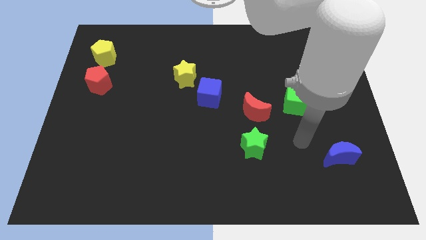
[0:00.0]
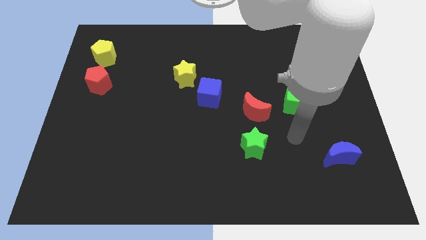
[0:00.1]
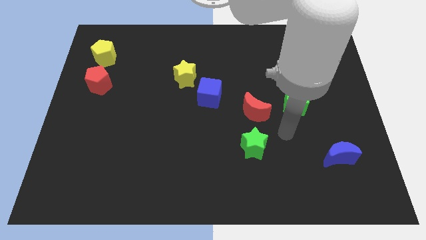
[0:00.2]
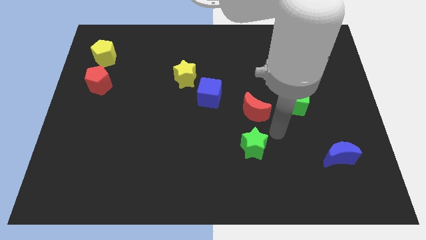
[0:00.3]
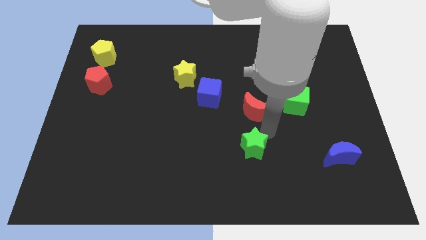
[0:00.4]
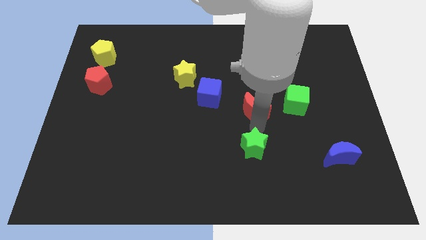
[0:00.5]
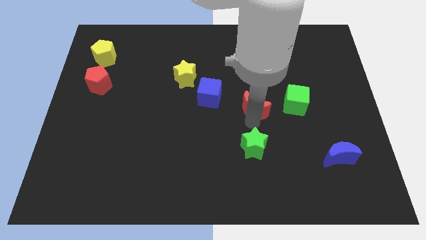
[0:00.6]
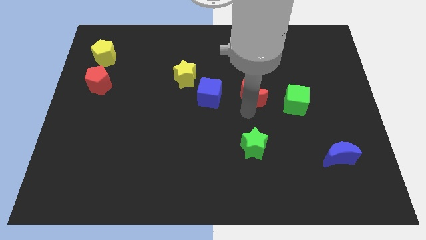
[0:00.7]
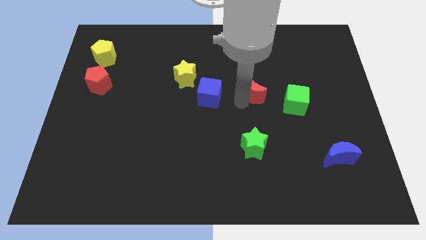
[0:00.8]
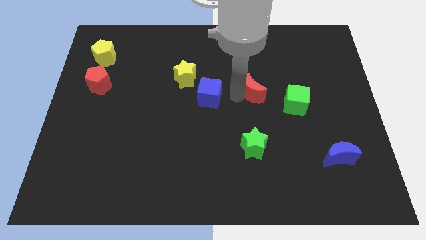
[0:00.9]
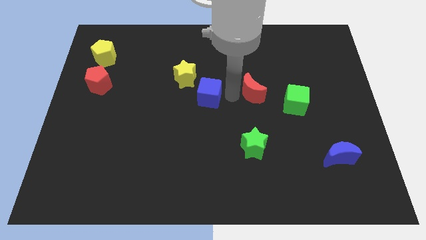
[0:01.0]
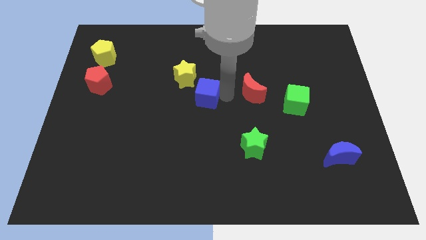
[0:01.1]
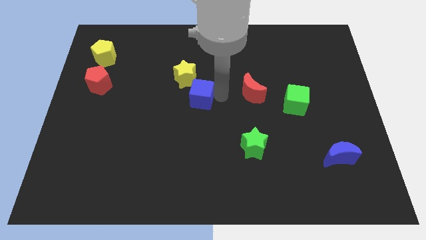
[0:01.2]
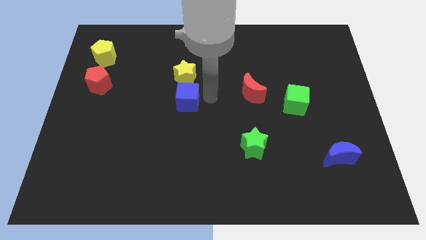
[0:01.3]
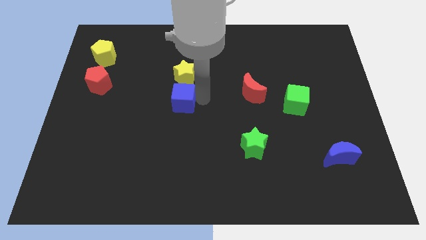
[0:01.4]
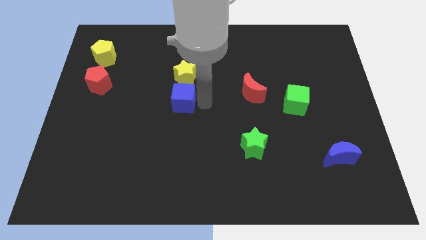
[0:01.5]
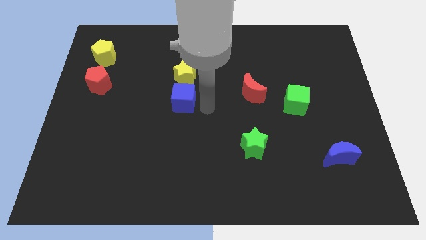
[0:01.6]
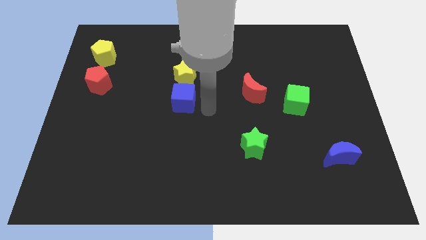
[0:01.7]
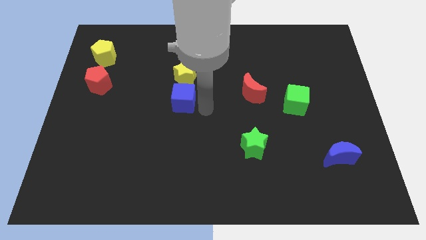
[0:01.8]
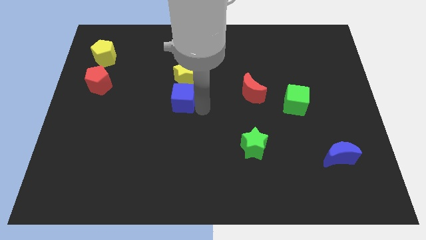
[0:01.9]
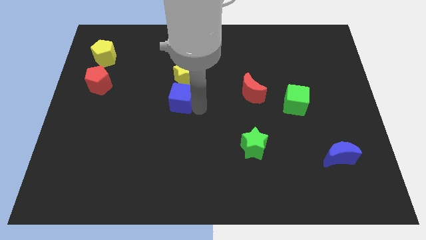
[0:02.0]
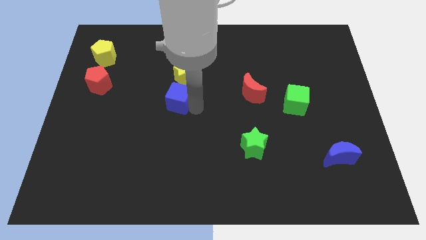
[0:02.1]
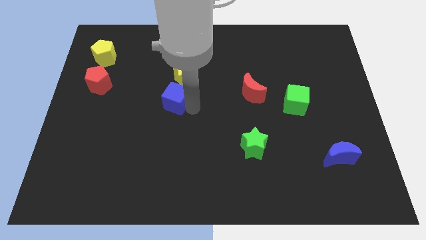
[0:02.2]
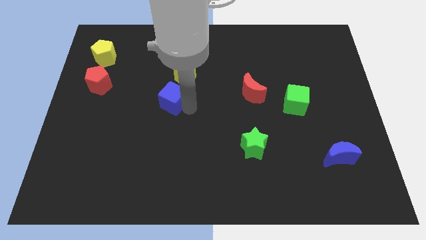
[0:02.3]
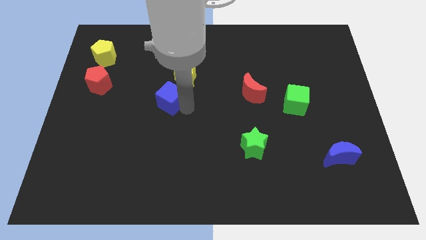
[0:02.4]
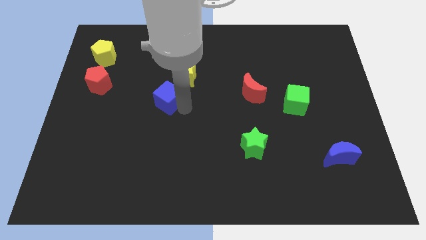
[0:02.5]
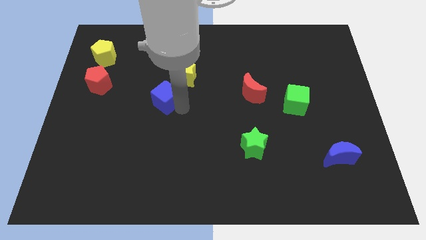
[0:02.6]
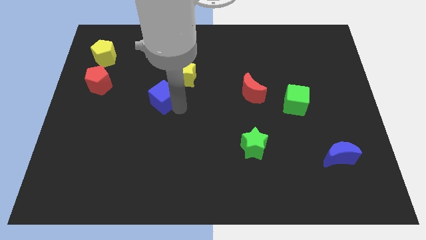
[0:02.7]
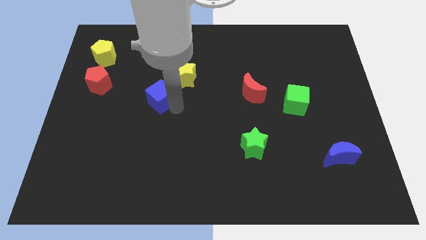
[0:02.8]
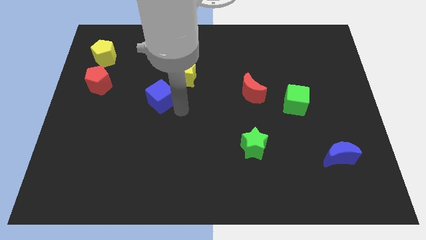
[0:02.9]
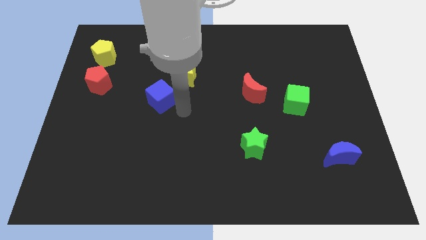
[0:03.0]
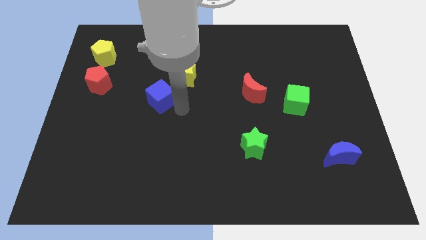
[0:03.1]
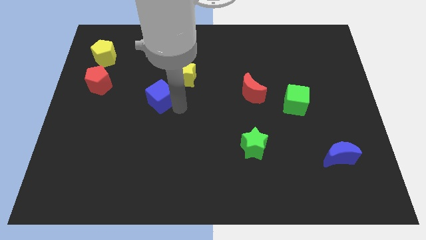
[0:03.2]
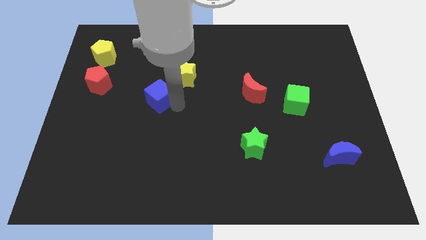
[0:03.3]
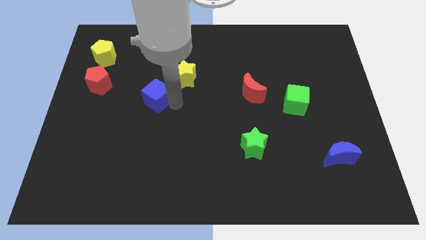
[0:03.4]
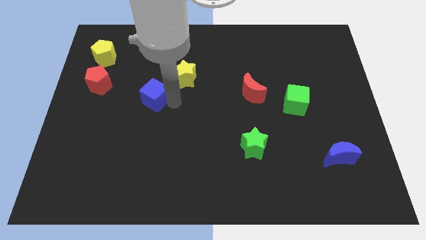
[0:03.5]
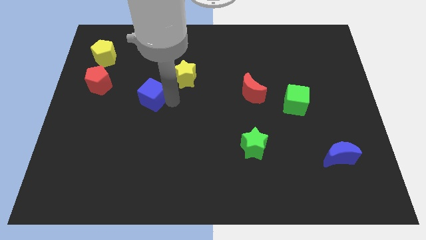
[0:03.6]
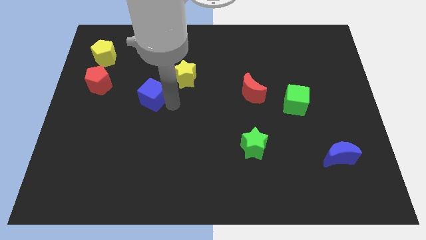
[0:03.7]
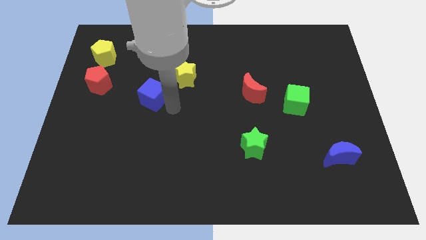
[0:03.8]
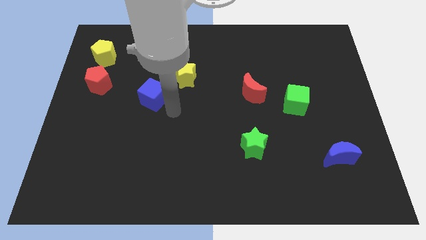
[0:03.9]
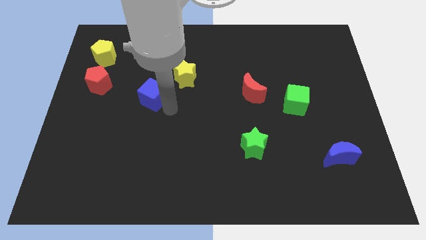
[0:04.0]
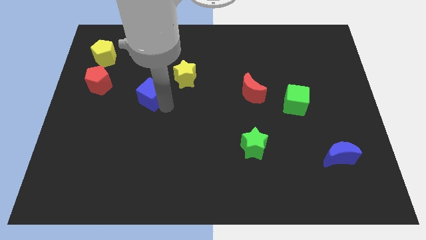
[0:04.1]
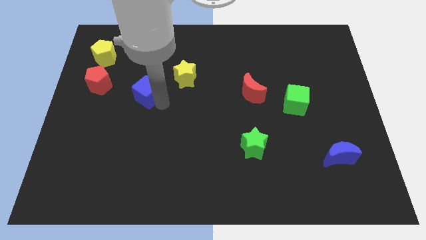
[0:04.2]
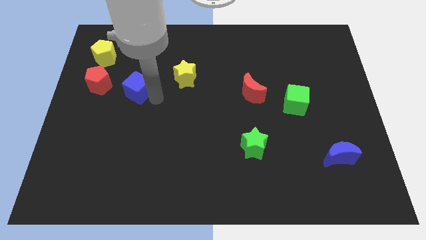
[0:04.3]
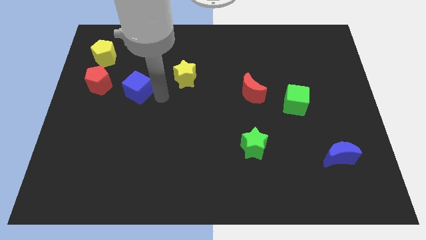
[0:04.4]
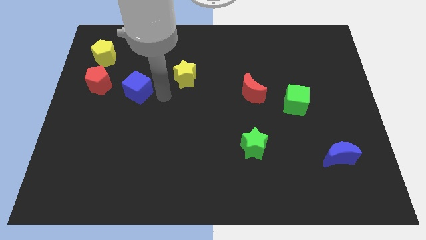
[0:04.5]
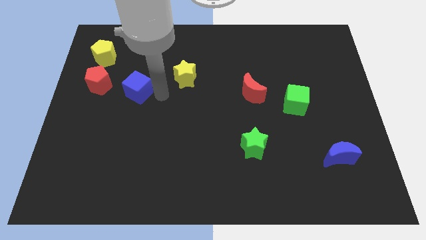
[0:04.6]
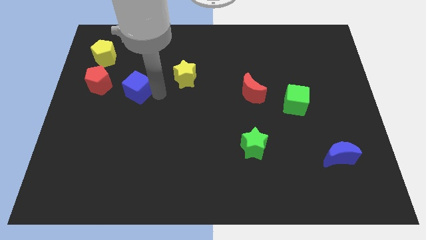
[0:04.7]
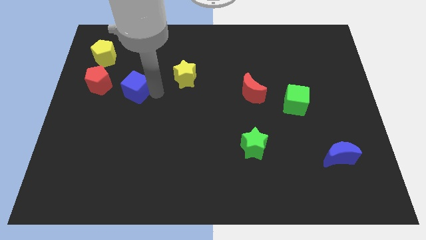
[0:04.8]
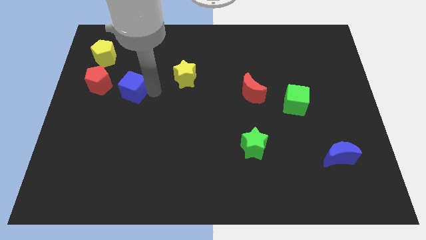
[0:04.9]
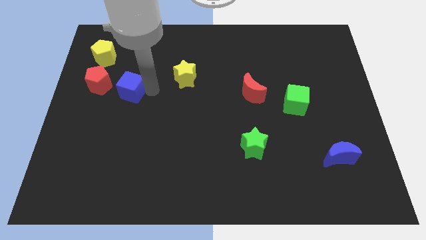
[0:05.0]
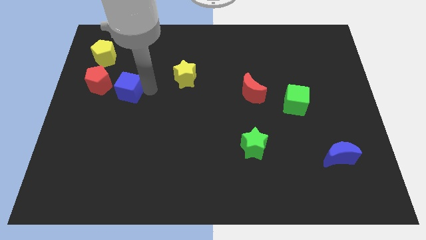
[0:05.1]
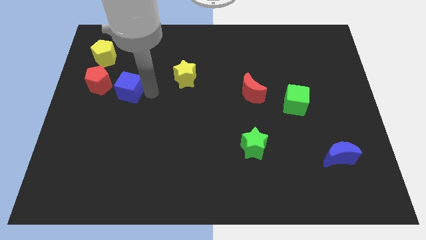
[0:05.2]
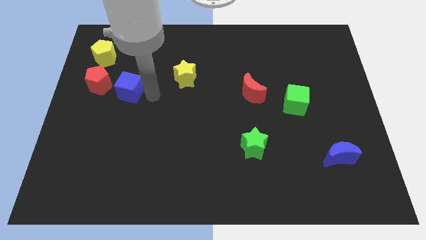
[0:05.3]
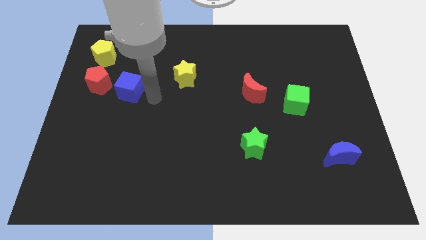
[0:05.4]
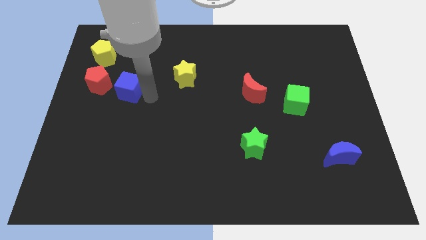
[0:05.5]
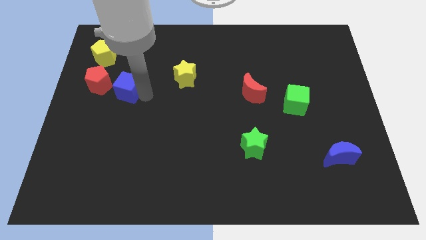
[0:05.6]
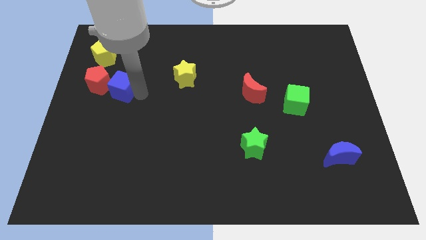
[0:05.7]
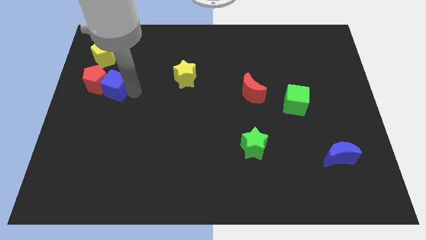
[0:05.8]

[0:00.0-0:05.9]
slide the blue cube to the red pentagon
